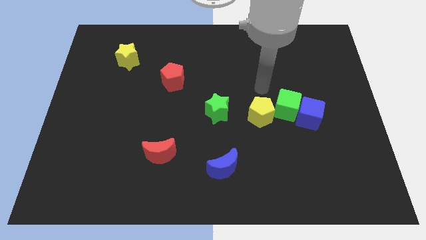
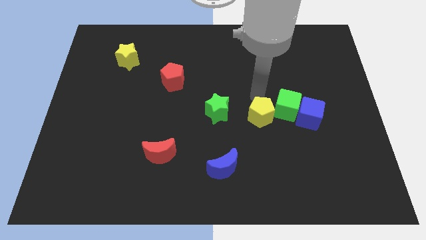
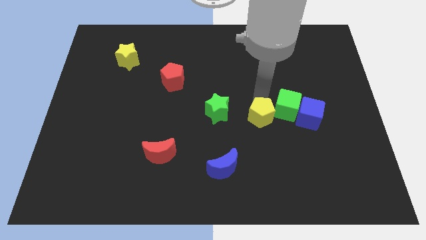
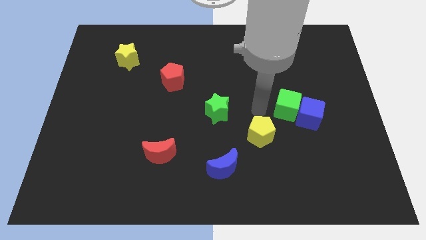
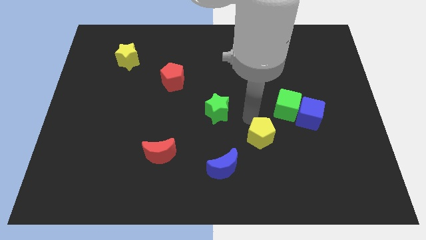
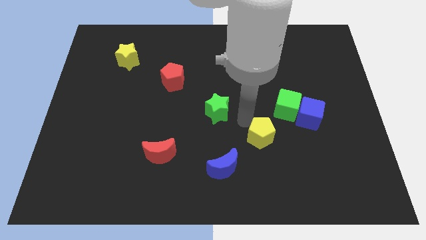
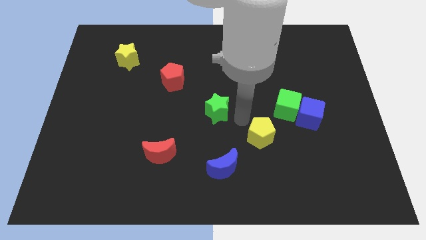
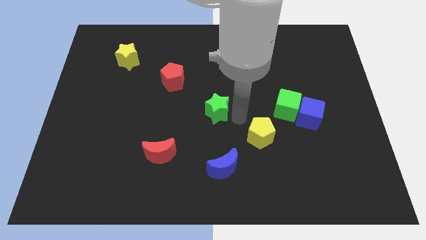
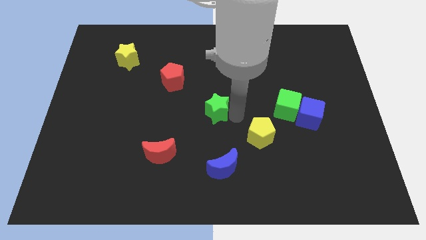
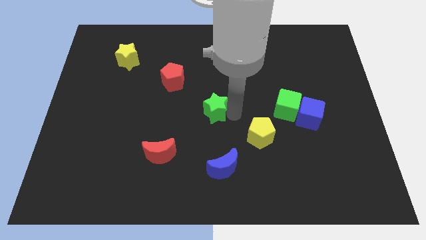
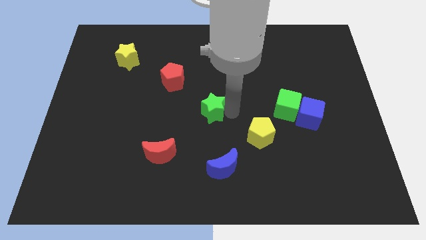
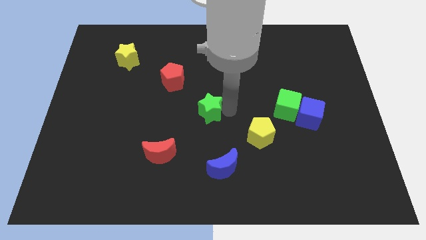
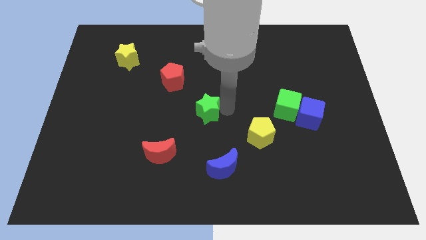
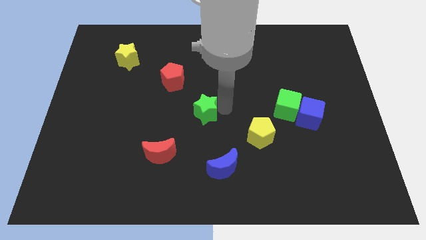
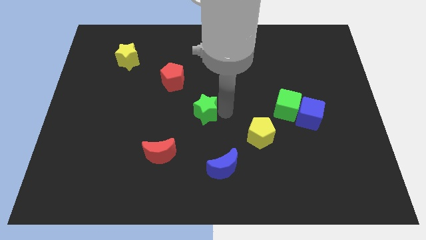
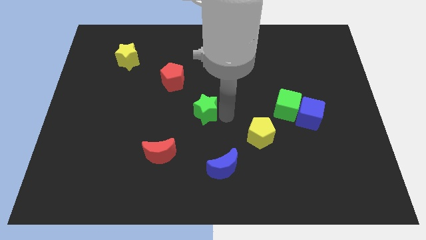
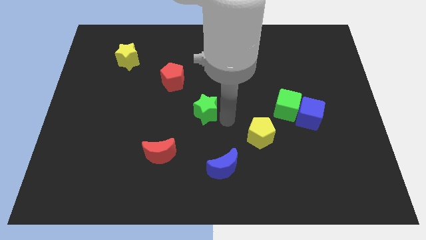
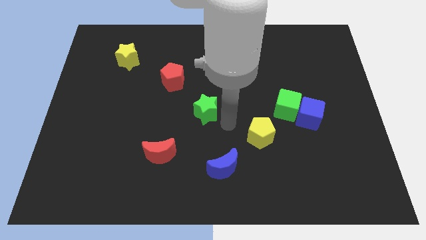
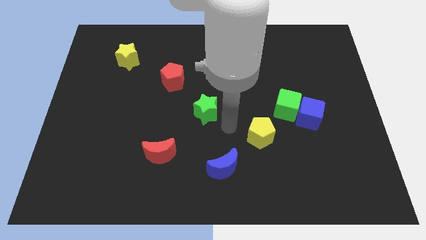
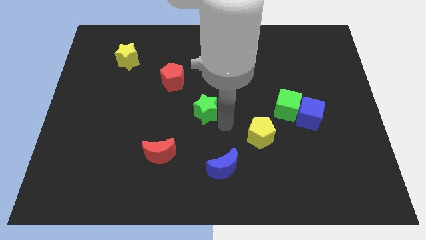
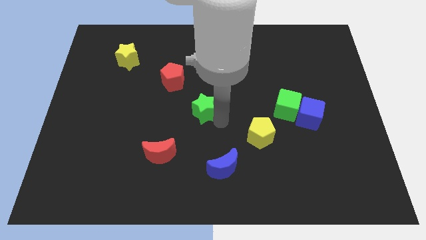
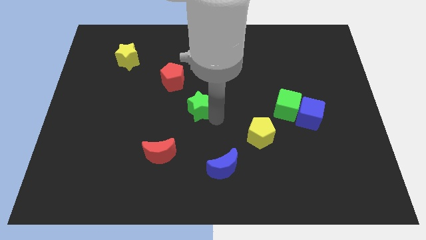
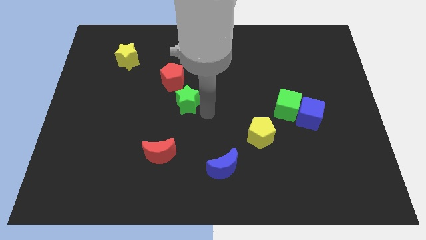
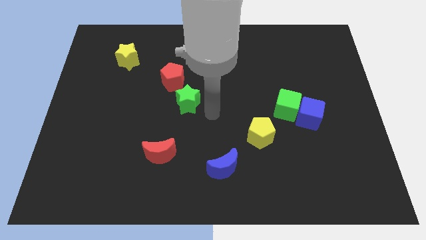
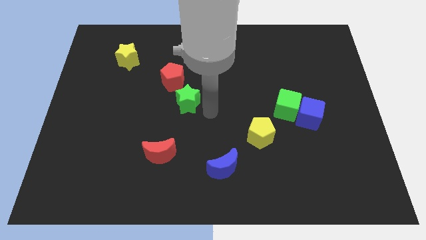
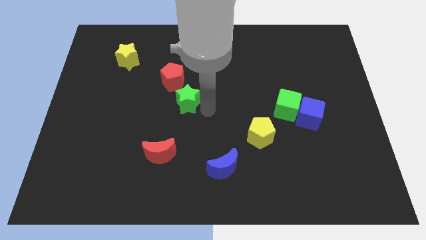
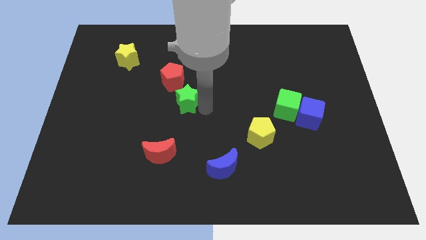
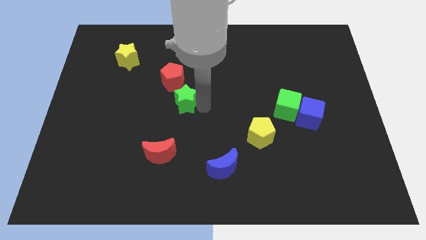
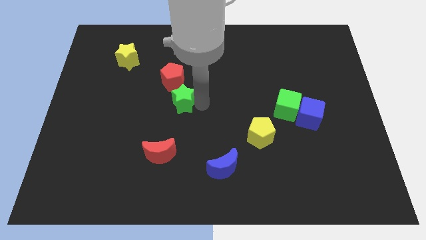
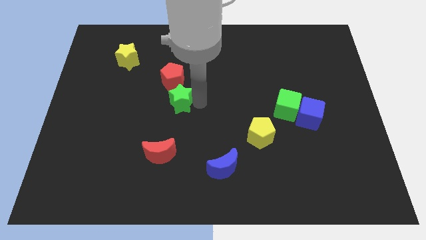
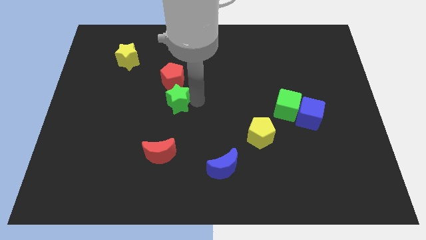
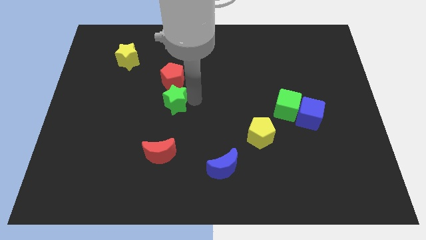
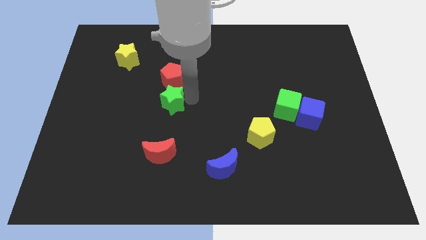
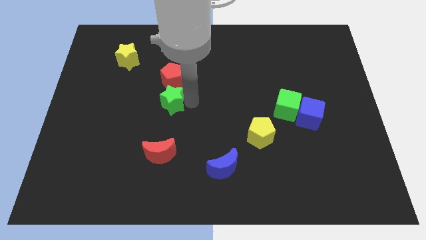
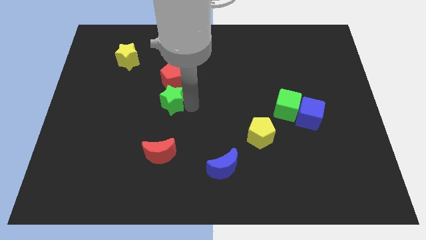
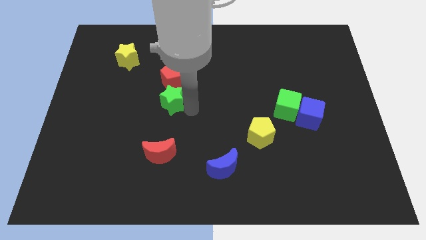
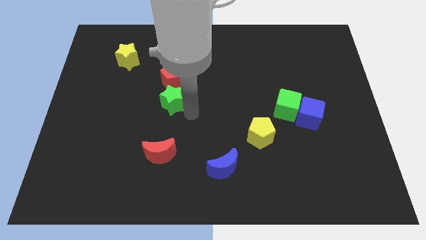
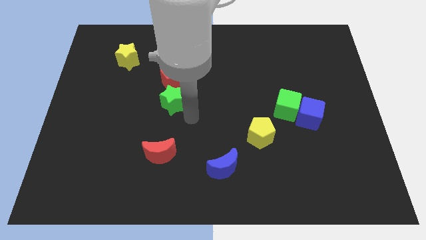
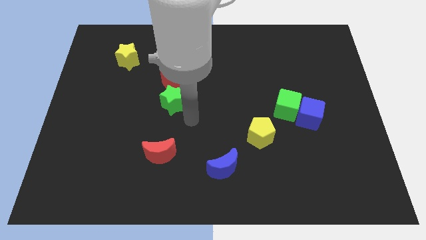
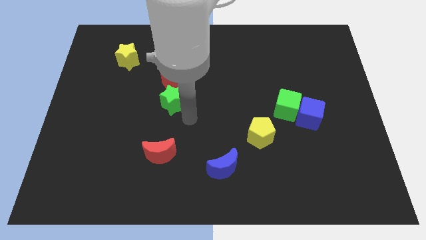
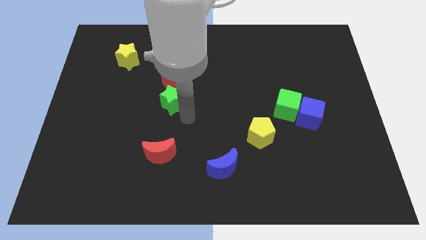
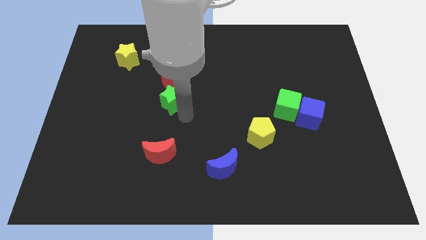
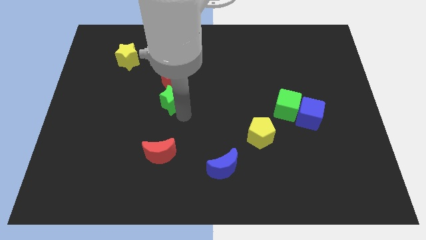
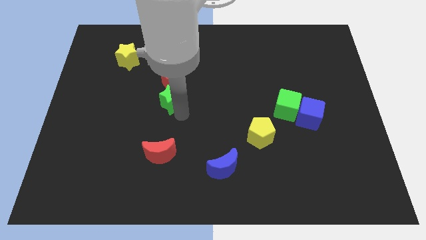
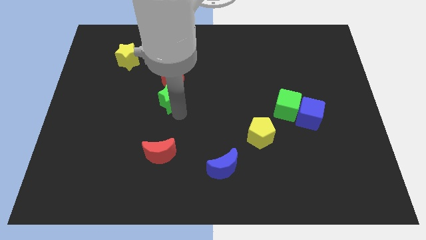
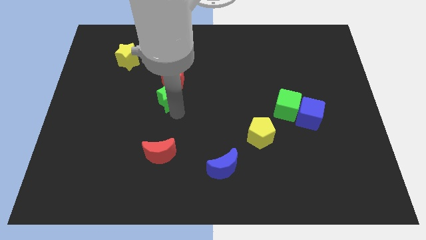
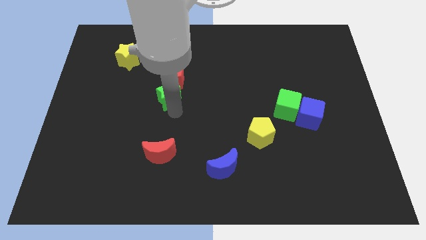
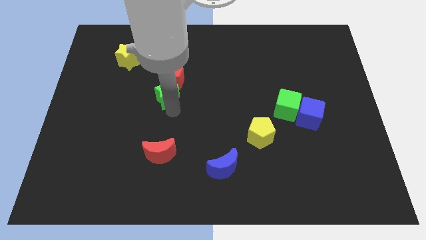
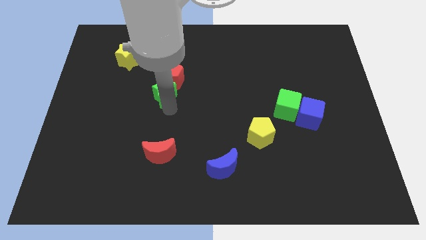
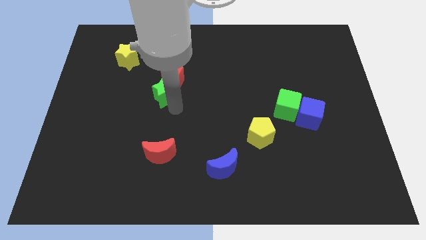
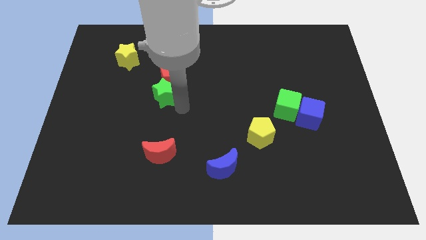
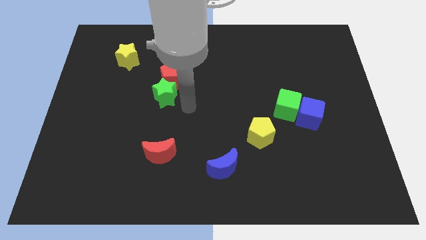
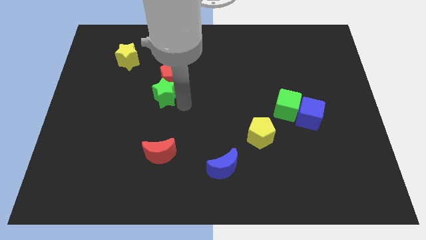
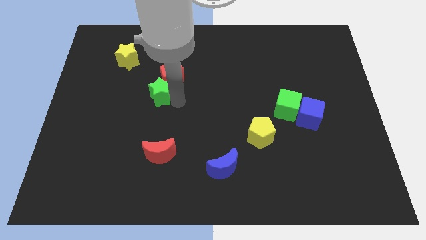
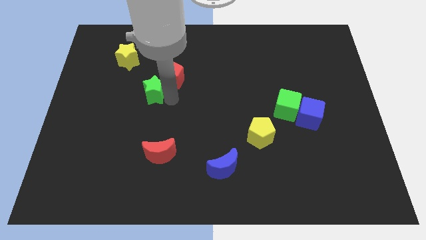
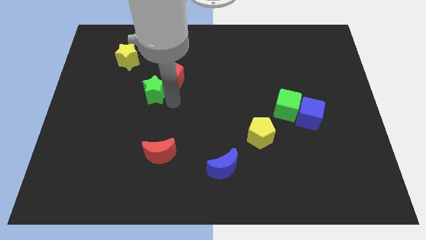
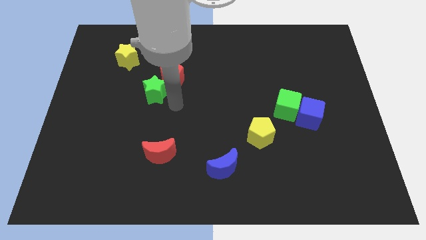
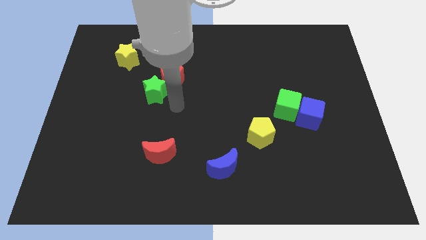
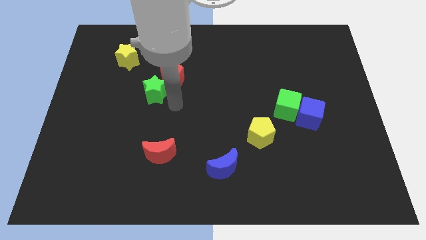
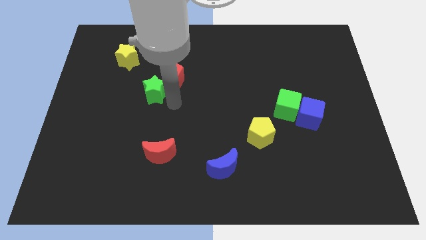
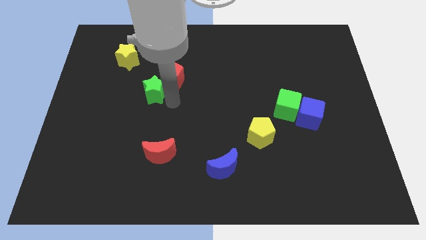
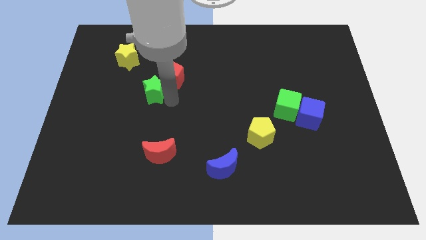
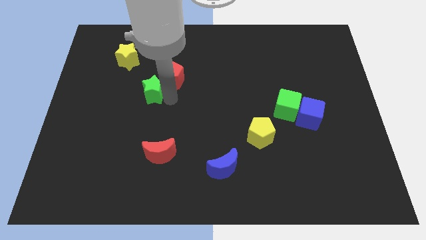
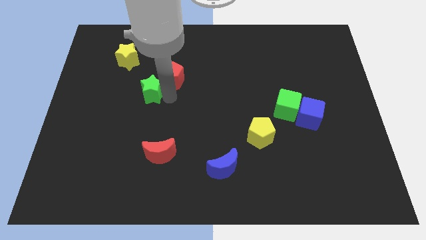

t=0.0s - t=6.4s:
move the green star to the left of the red pentagon

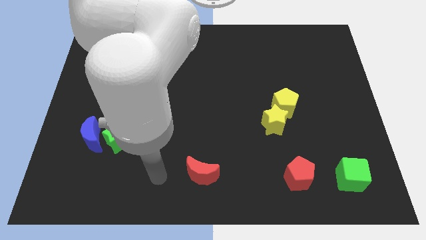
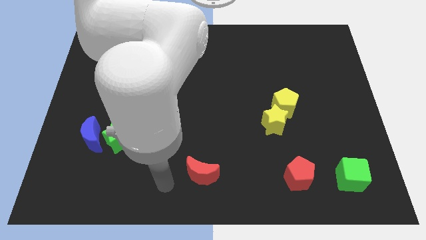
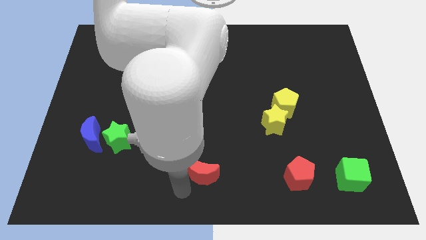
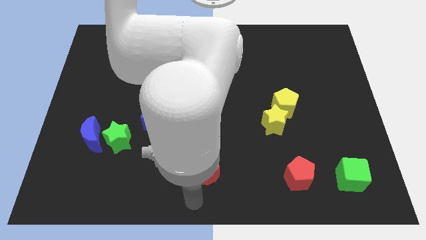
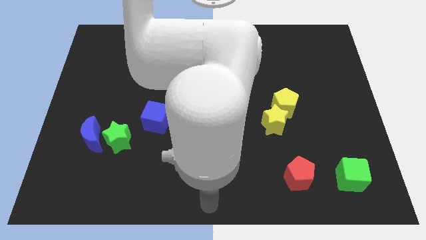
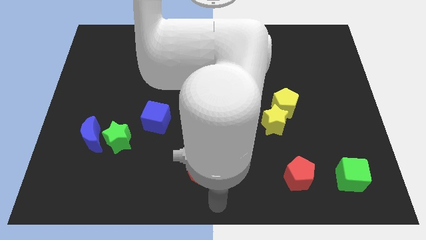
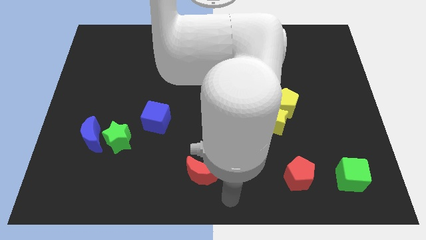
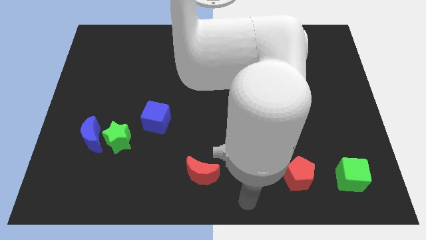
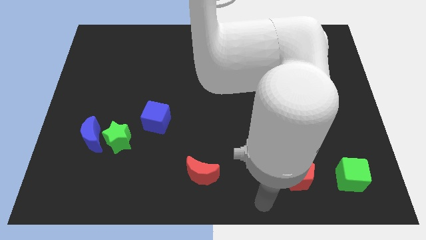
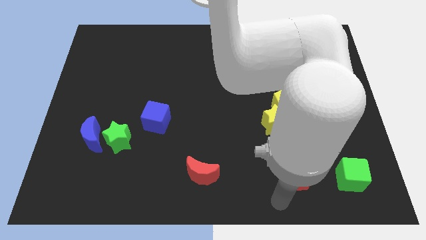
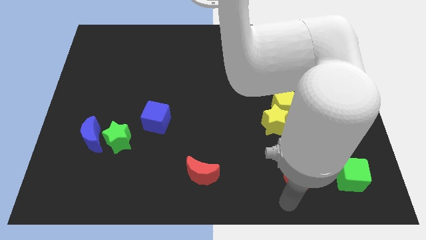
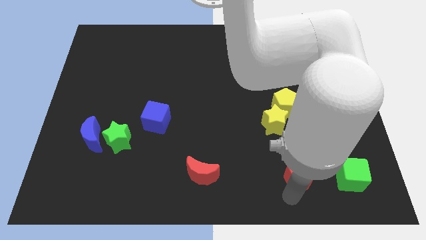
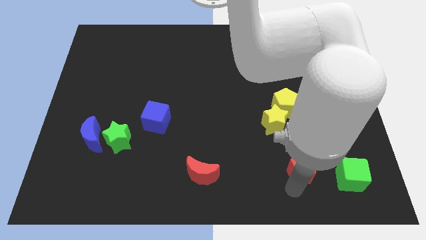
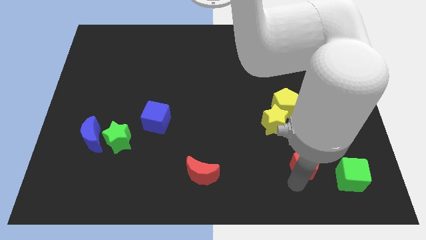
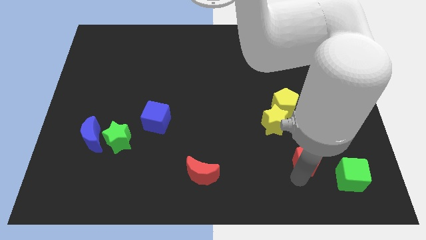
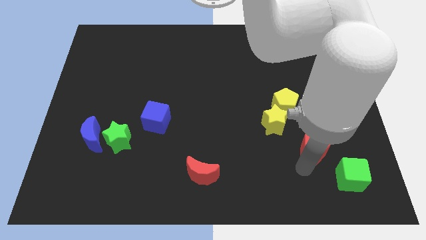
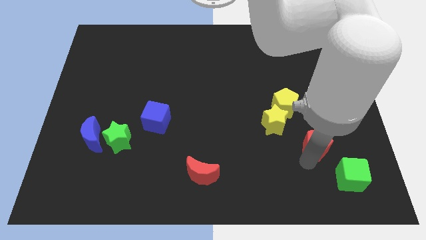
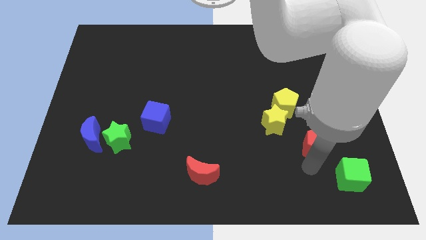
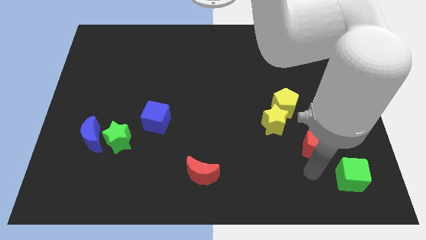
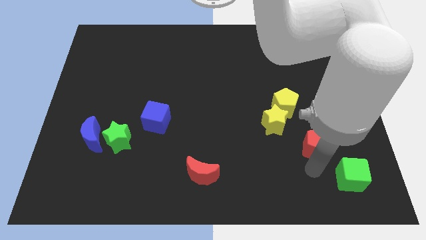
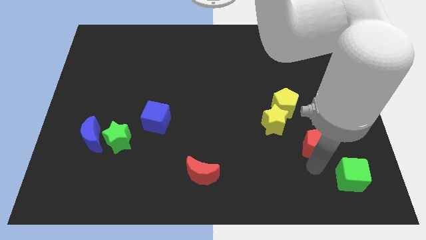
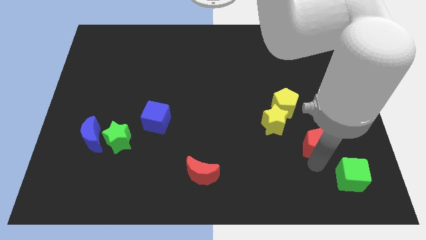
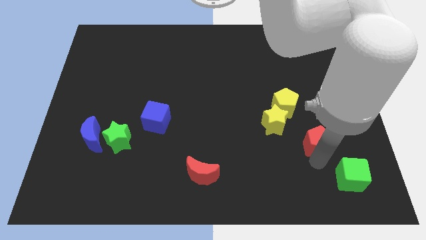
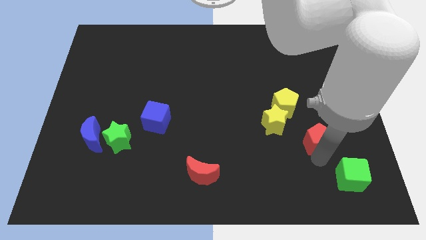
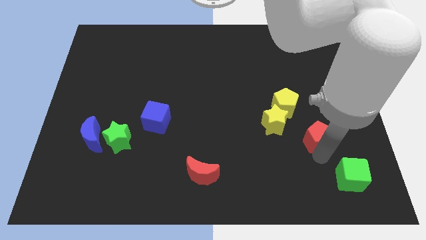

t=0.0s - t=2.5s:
slide the red pentagon just right of the yellow star
